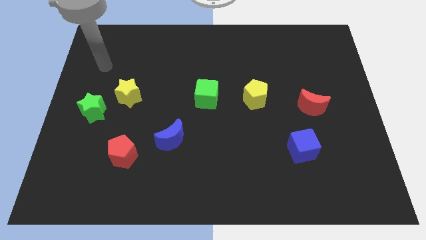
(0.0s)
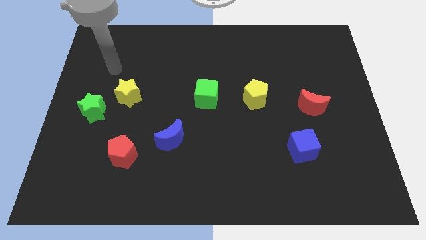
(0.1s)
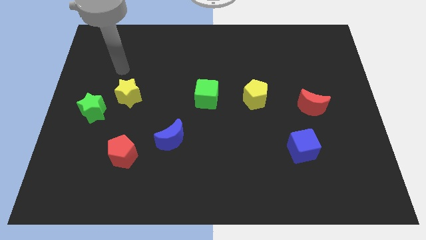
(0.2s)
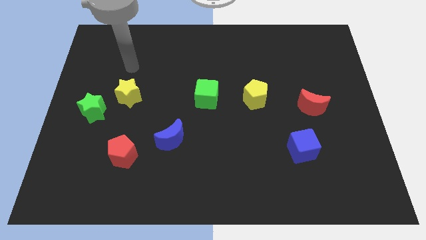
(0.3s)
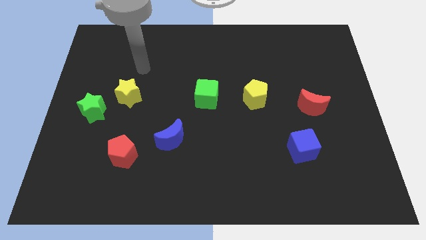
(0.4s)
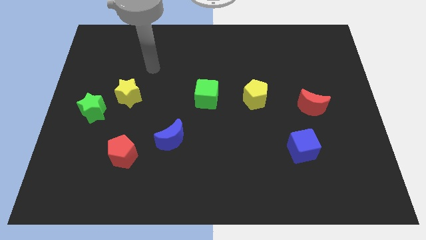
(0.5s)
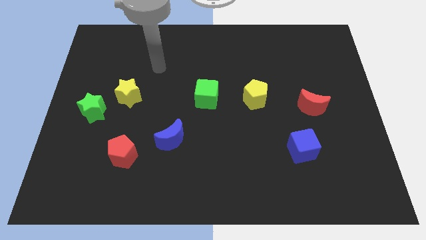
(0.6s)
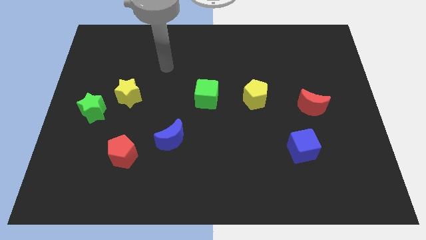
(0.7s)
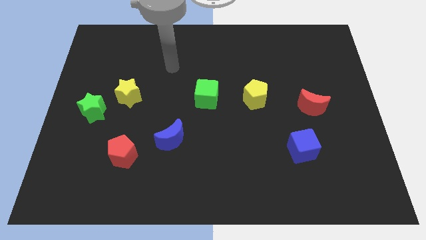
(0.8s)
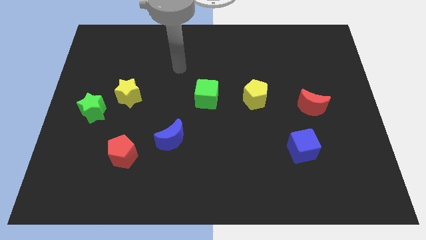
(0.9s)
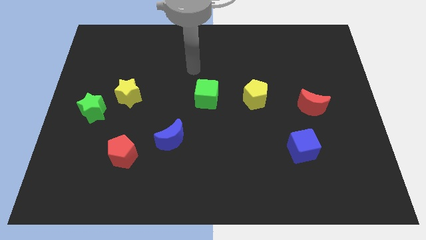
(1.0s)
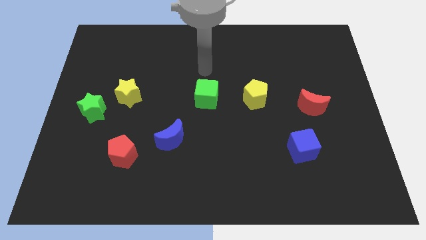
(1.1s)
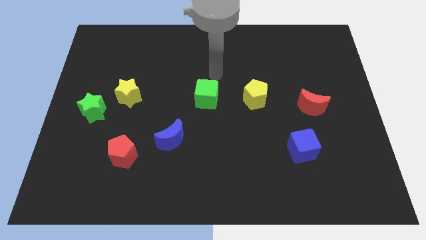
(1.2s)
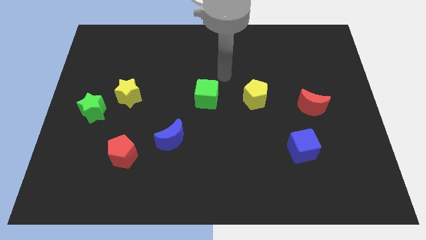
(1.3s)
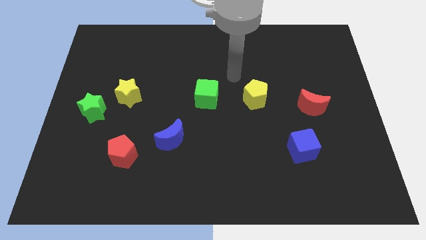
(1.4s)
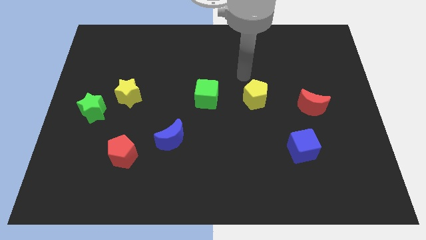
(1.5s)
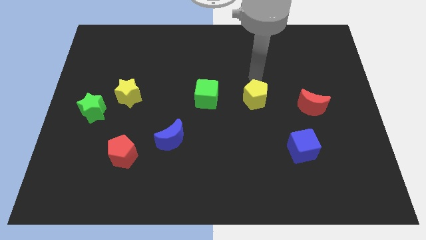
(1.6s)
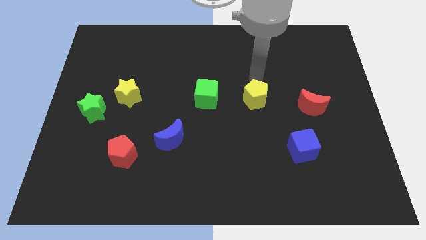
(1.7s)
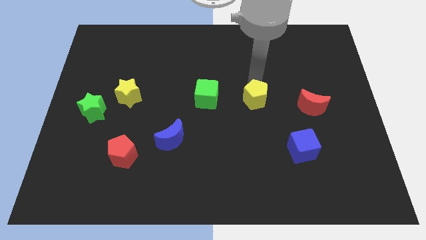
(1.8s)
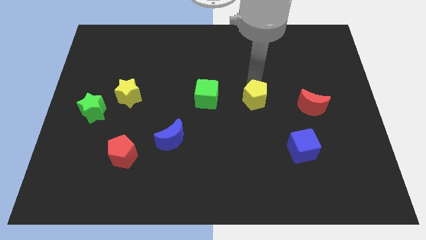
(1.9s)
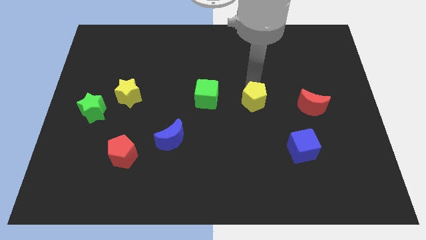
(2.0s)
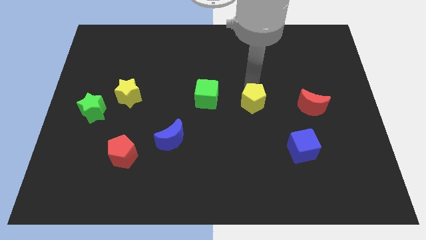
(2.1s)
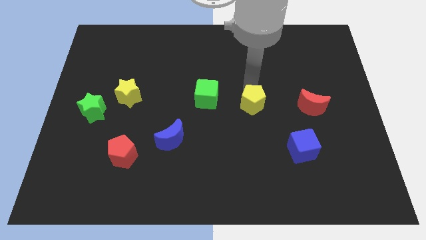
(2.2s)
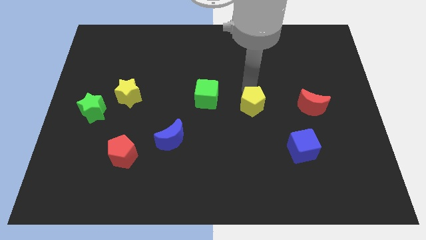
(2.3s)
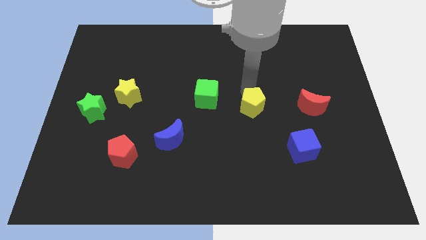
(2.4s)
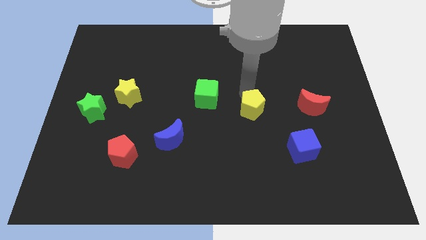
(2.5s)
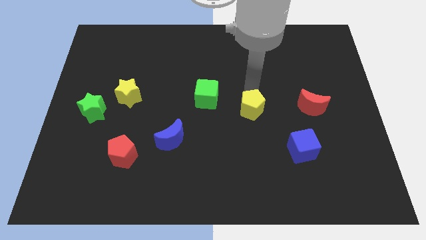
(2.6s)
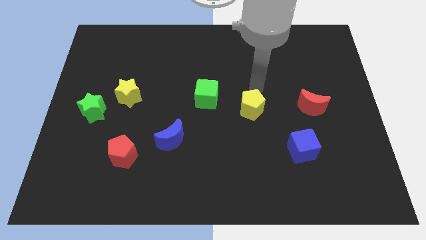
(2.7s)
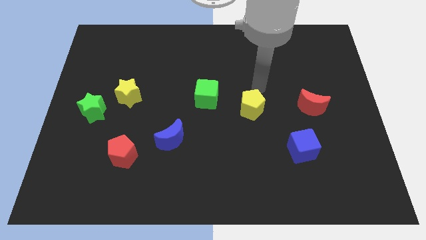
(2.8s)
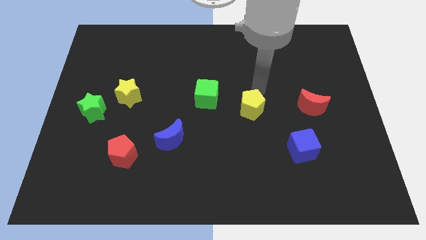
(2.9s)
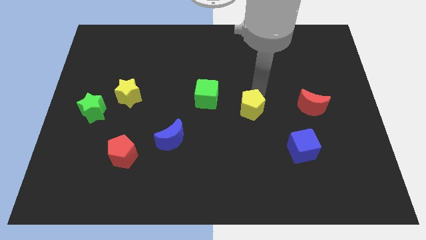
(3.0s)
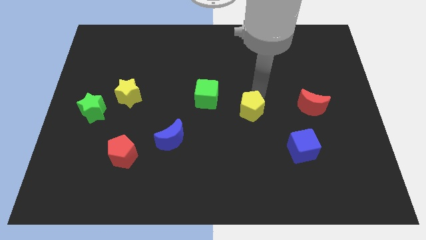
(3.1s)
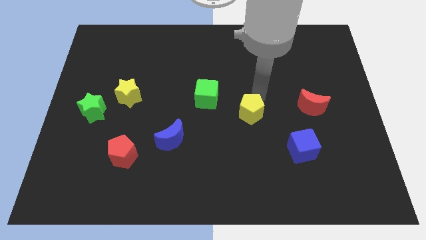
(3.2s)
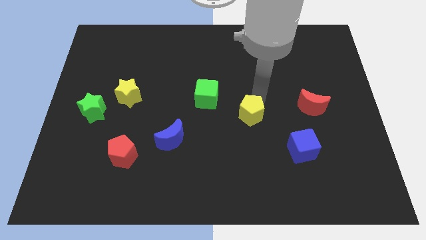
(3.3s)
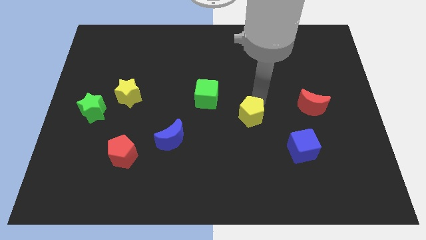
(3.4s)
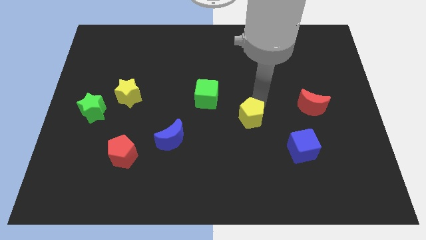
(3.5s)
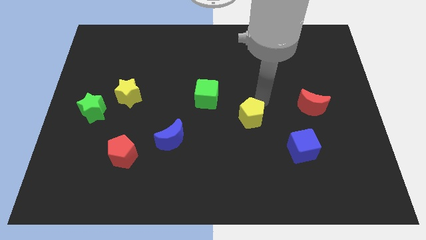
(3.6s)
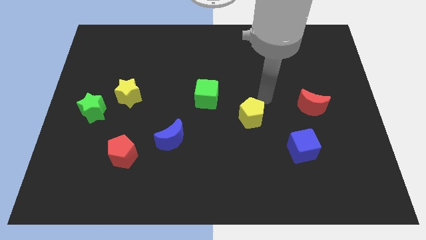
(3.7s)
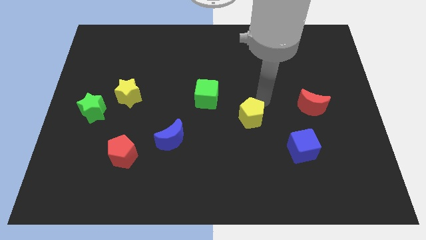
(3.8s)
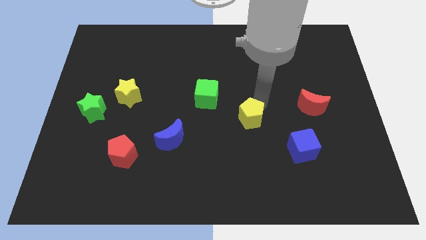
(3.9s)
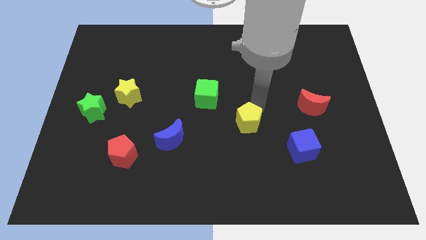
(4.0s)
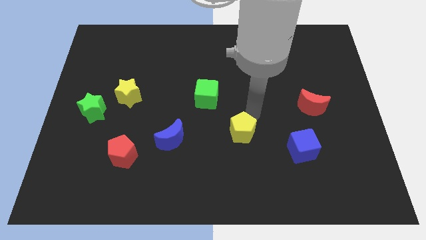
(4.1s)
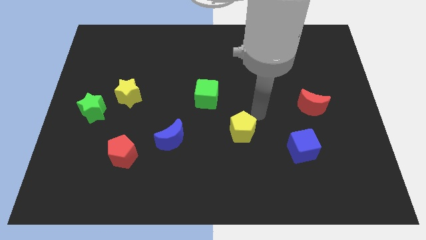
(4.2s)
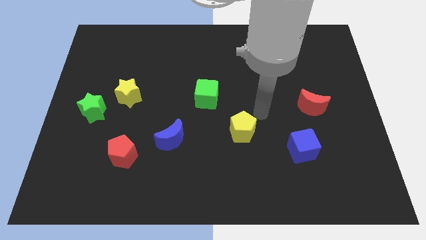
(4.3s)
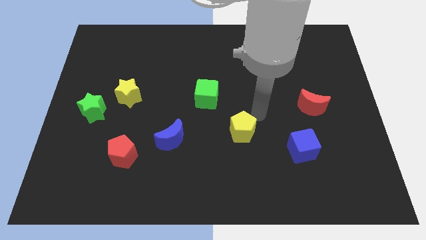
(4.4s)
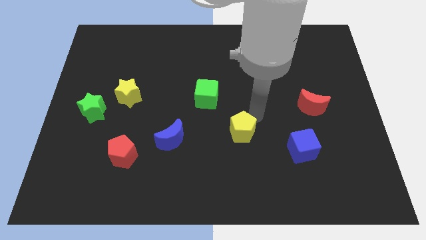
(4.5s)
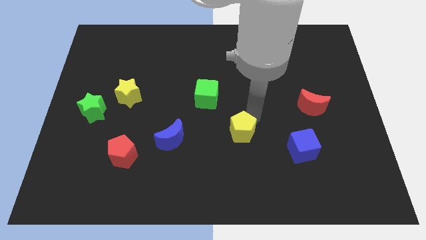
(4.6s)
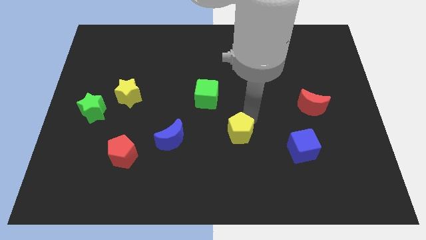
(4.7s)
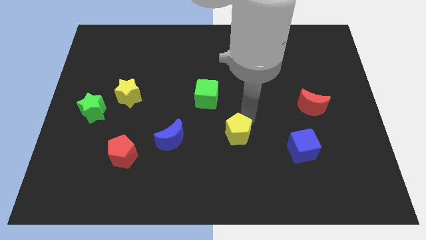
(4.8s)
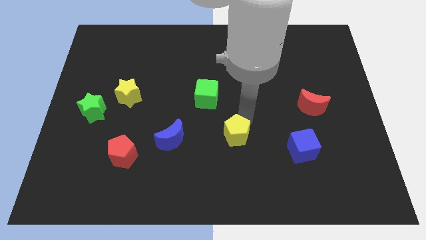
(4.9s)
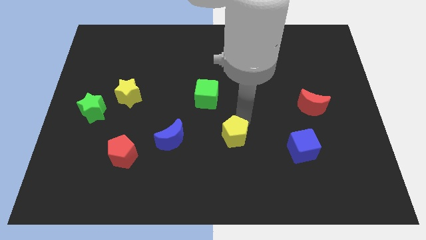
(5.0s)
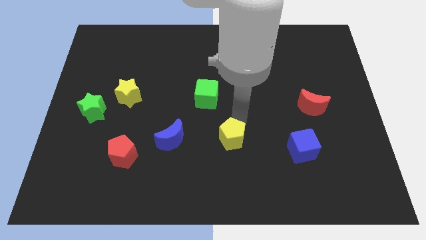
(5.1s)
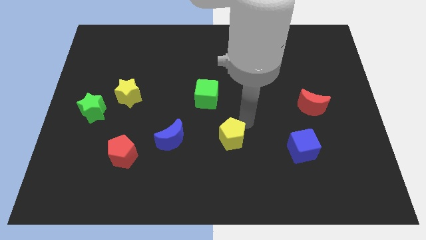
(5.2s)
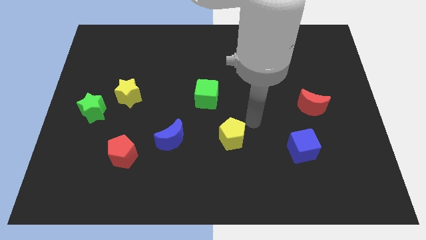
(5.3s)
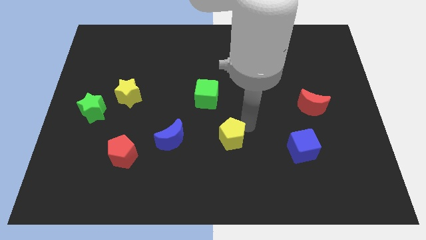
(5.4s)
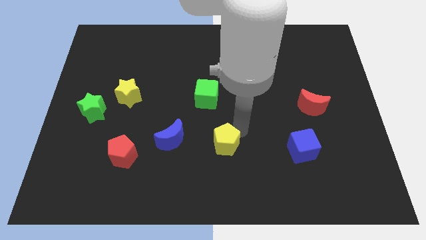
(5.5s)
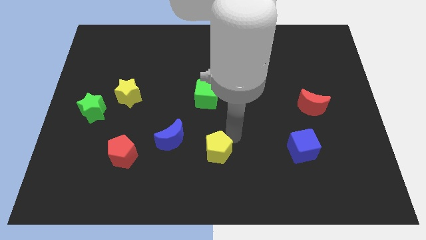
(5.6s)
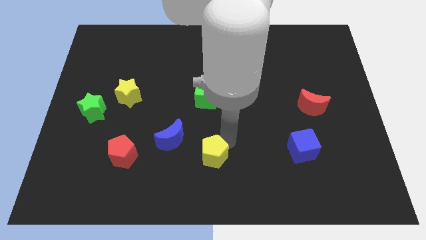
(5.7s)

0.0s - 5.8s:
slide the yellow pentagon diagonally down and to the right of the blue moon

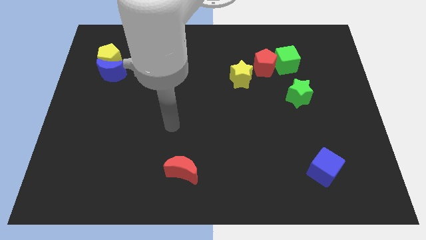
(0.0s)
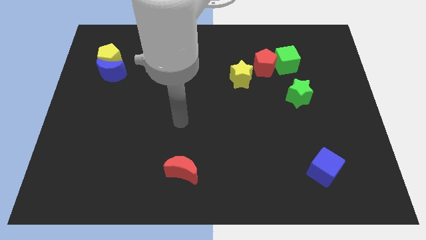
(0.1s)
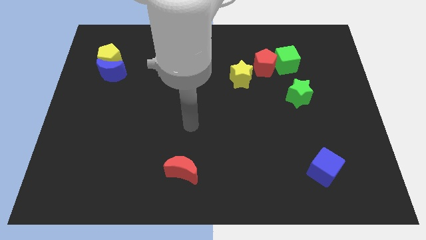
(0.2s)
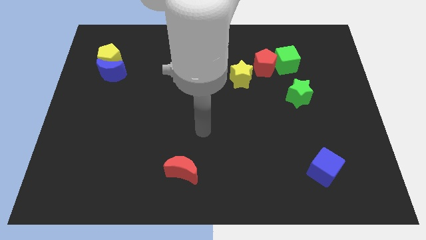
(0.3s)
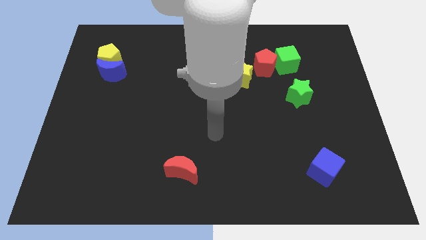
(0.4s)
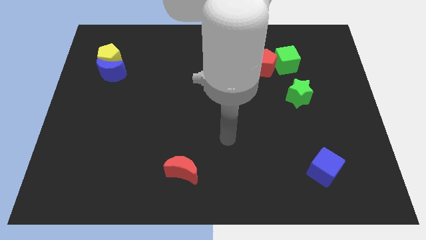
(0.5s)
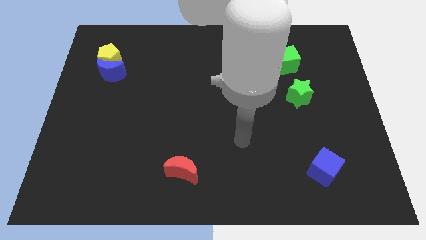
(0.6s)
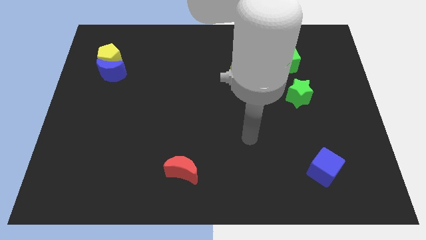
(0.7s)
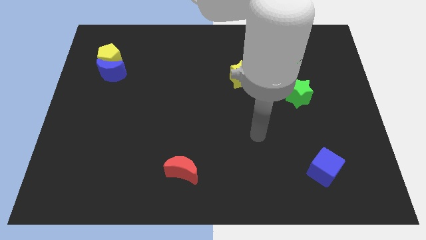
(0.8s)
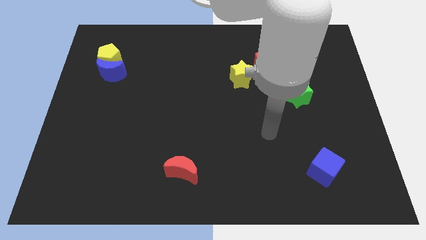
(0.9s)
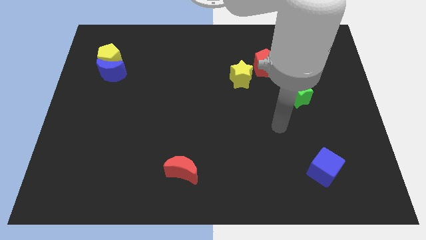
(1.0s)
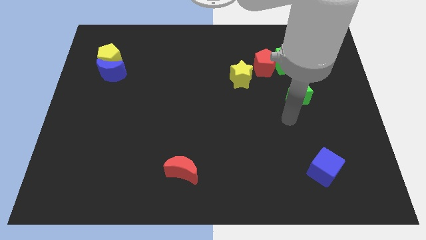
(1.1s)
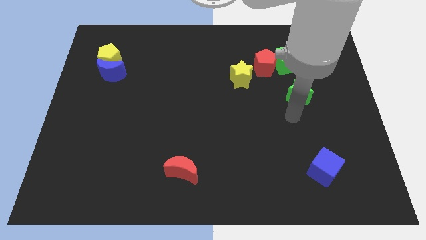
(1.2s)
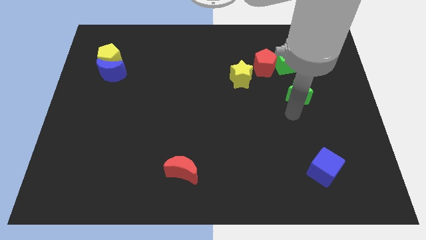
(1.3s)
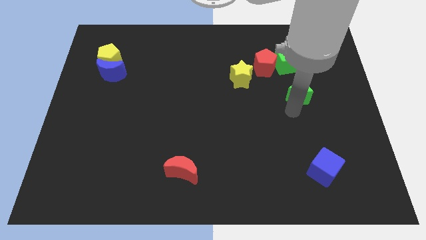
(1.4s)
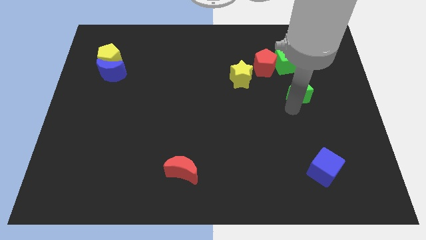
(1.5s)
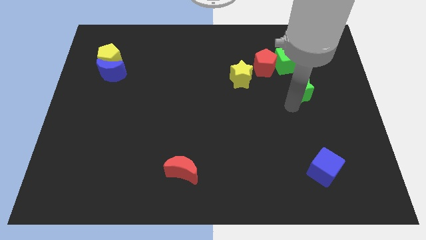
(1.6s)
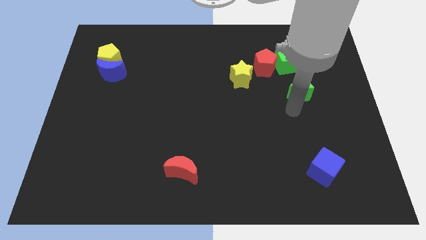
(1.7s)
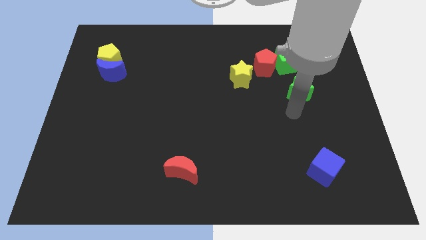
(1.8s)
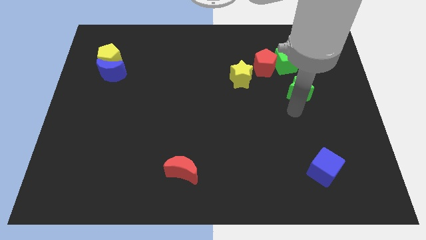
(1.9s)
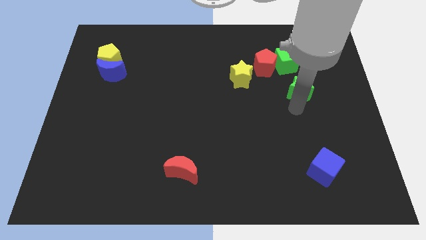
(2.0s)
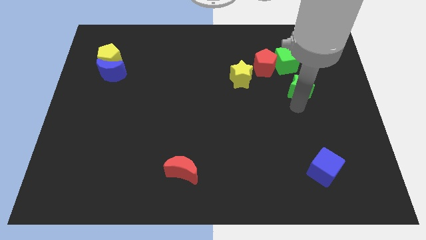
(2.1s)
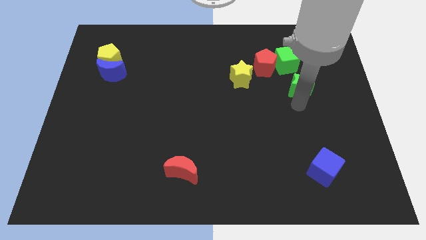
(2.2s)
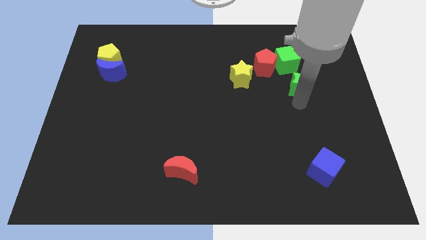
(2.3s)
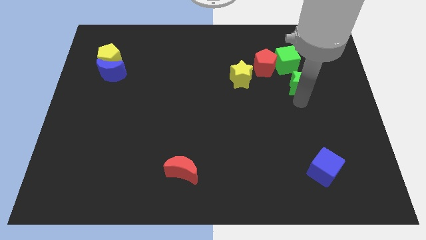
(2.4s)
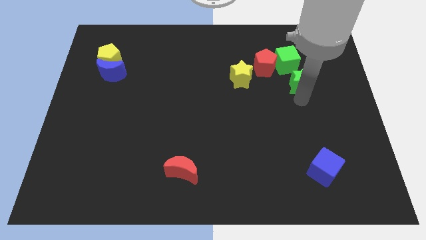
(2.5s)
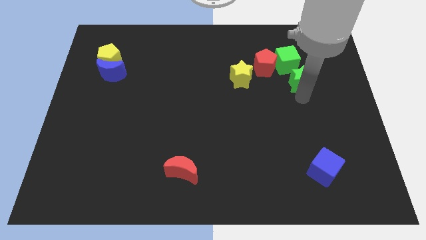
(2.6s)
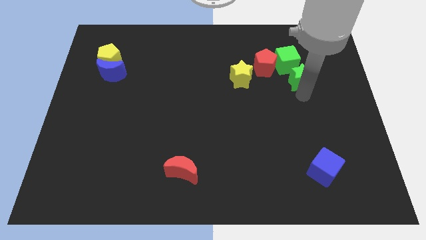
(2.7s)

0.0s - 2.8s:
slide the green star right of the red pentagon
